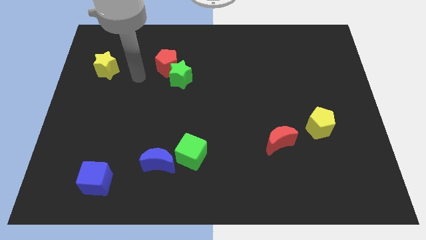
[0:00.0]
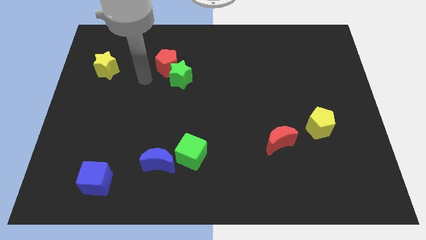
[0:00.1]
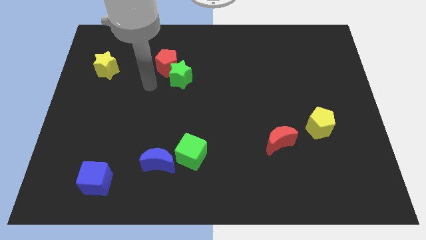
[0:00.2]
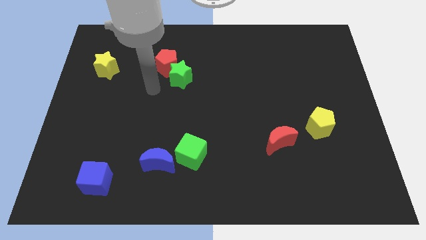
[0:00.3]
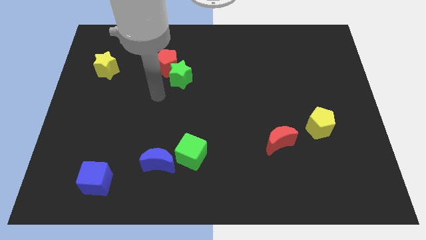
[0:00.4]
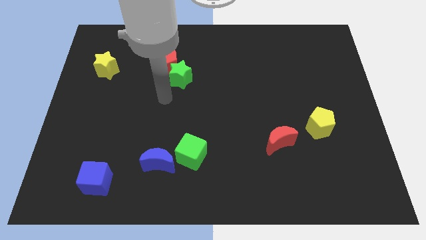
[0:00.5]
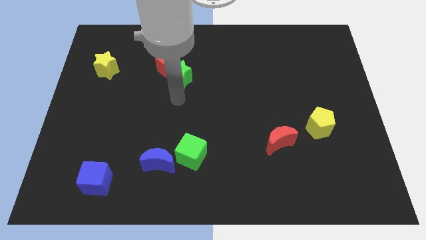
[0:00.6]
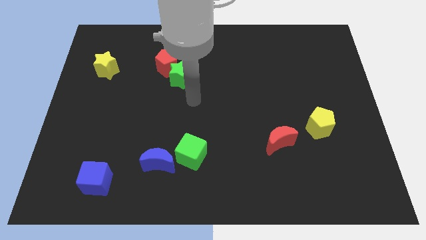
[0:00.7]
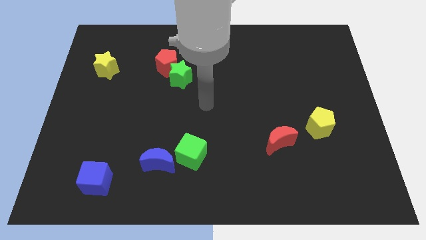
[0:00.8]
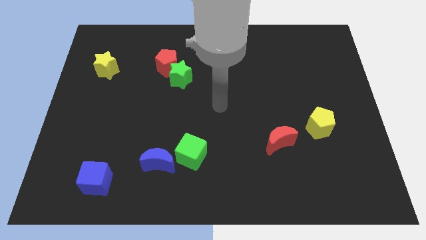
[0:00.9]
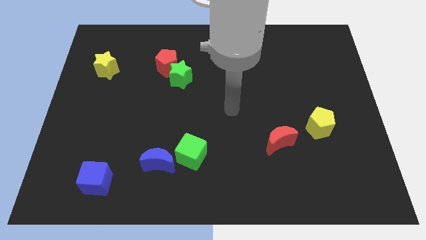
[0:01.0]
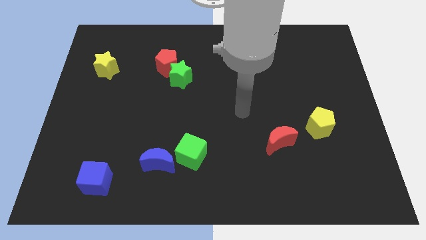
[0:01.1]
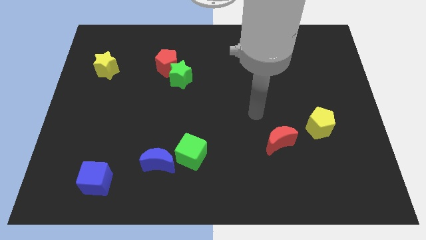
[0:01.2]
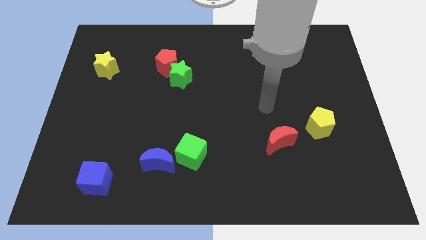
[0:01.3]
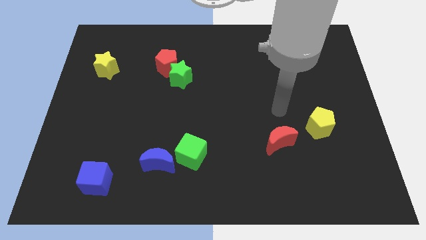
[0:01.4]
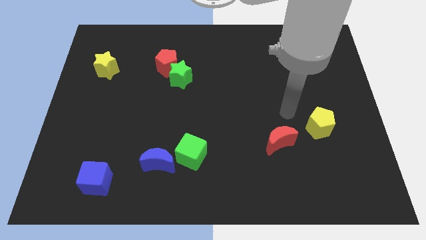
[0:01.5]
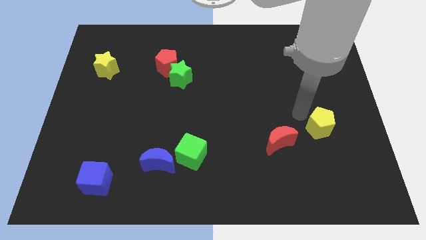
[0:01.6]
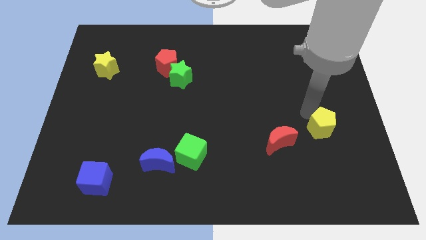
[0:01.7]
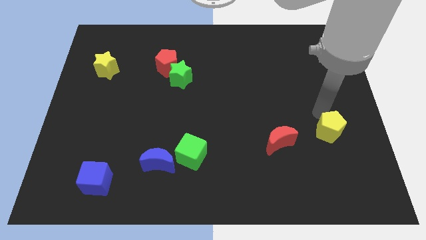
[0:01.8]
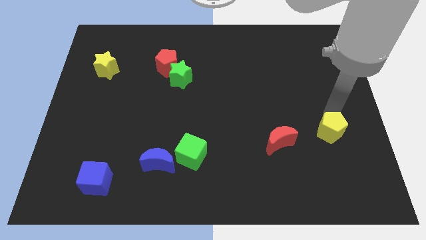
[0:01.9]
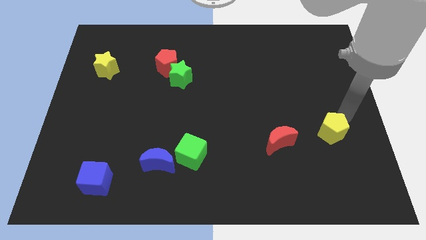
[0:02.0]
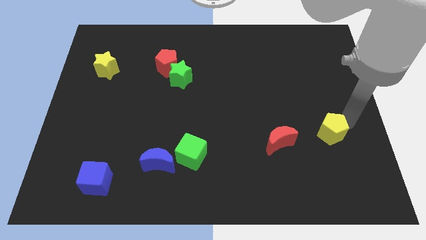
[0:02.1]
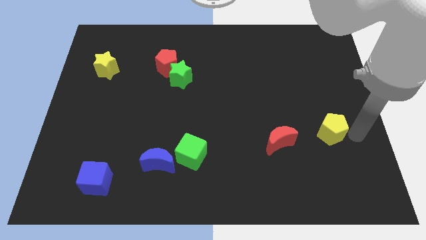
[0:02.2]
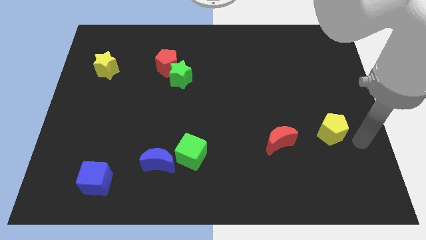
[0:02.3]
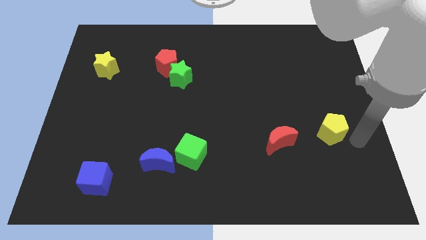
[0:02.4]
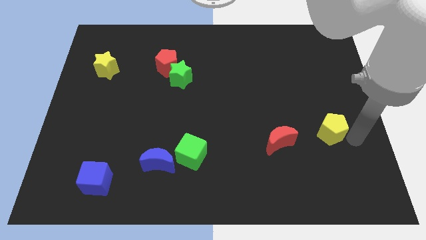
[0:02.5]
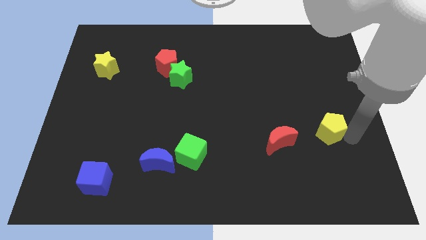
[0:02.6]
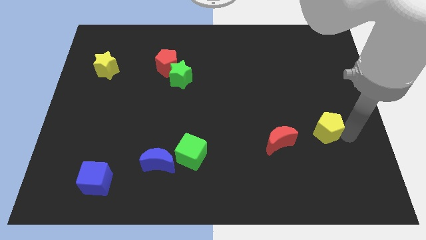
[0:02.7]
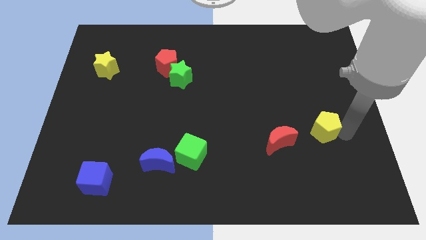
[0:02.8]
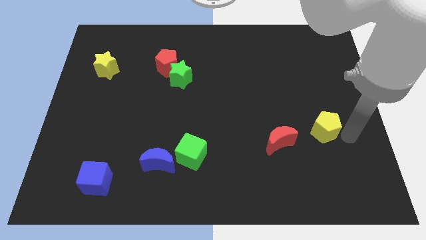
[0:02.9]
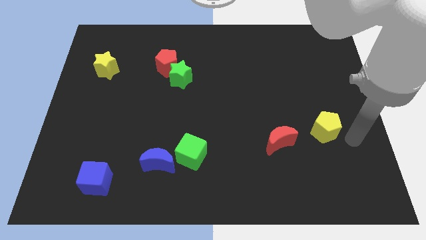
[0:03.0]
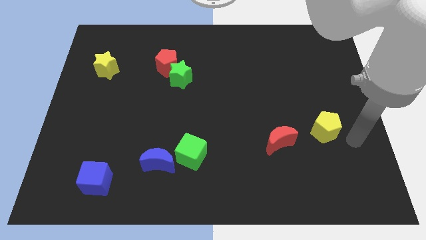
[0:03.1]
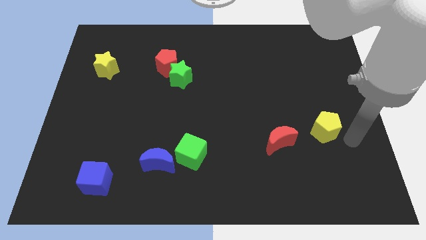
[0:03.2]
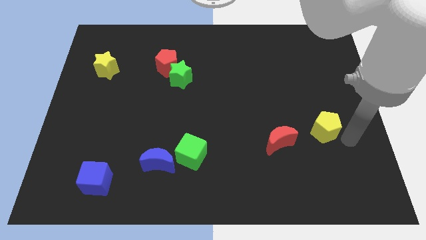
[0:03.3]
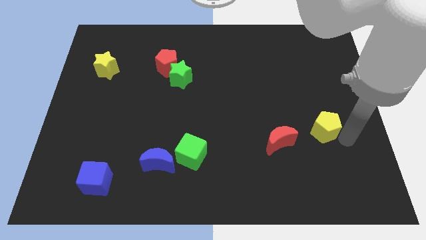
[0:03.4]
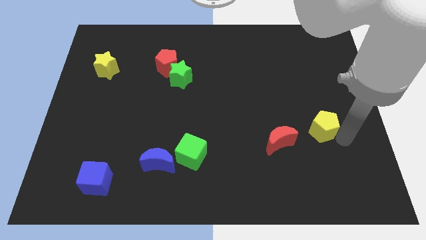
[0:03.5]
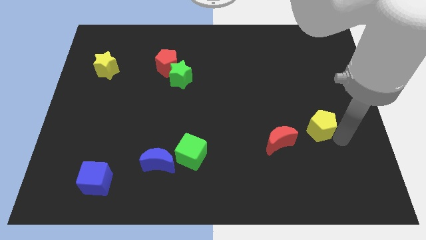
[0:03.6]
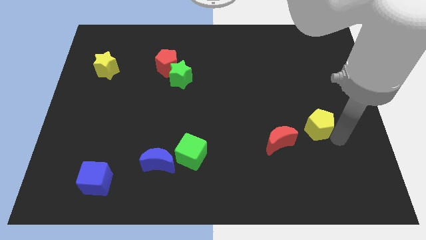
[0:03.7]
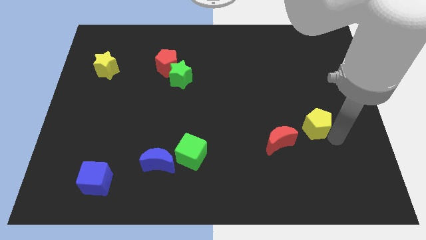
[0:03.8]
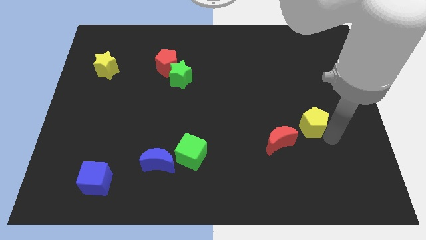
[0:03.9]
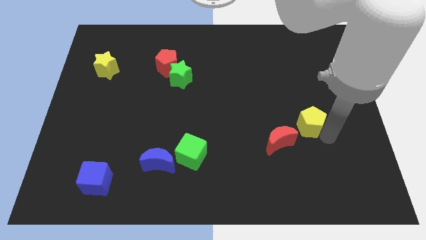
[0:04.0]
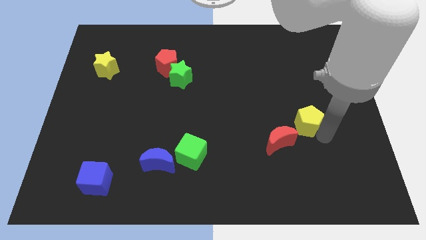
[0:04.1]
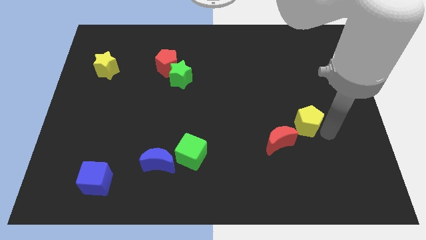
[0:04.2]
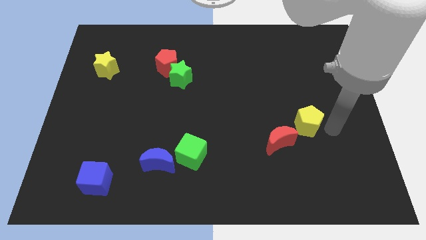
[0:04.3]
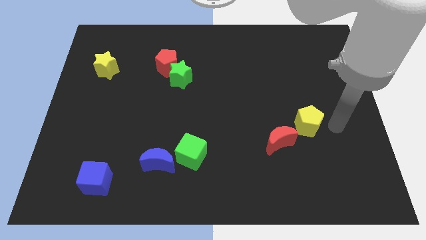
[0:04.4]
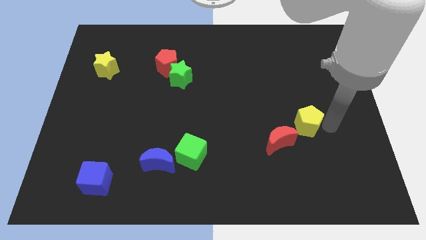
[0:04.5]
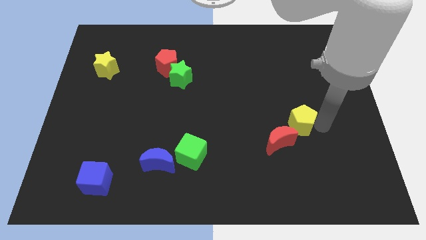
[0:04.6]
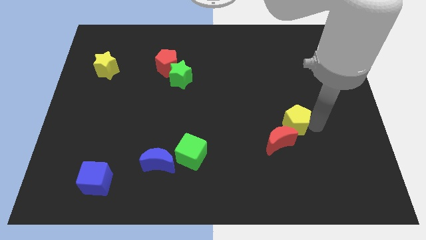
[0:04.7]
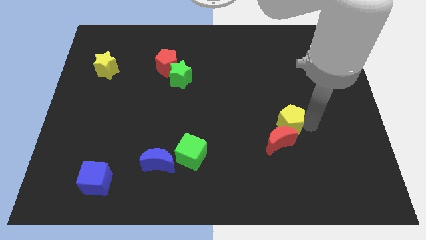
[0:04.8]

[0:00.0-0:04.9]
push the yellow pentagon to the left a bit

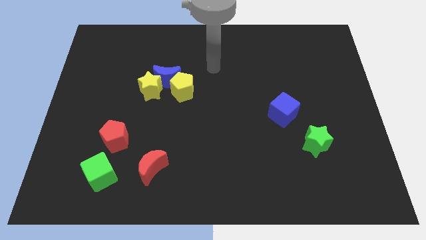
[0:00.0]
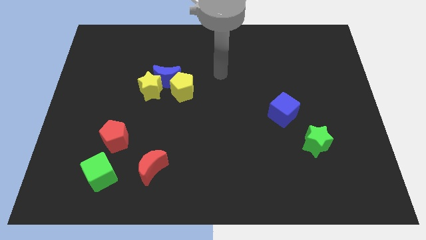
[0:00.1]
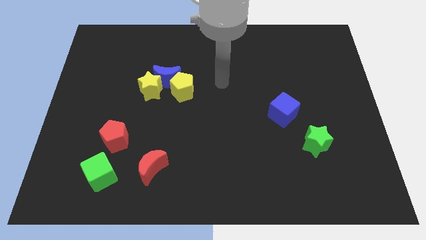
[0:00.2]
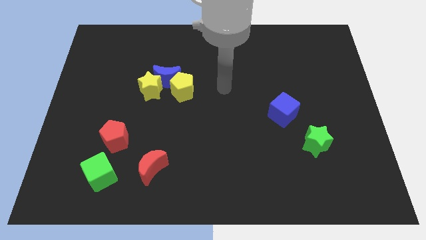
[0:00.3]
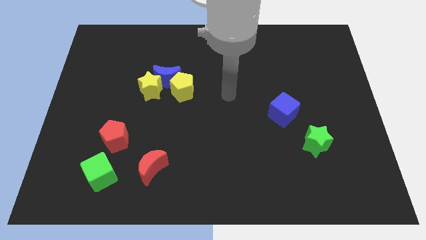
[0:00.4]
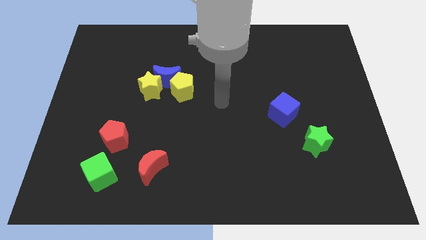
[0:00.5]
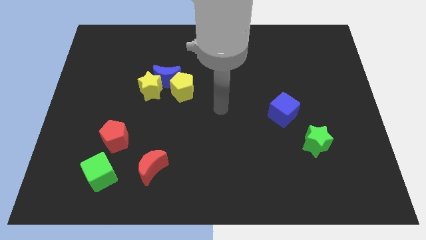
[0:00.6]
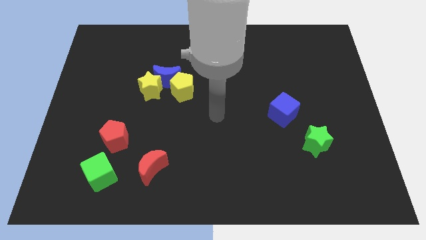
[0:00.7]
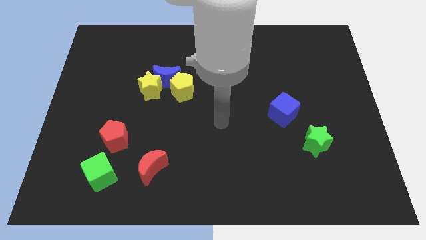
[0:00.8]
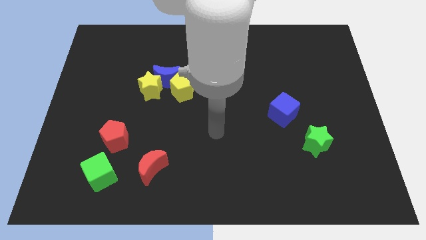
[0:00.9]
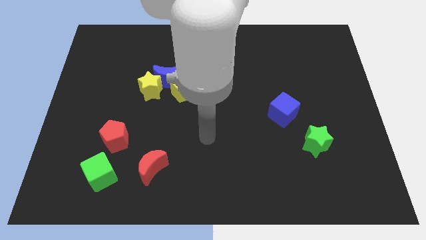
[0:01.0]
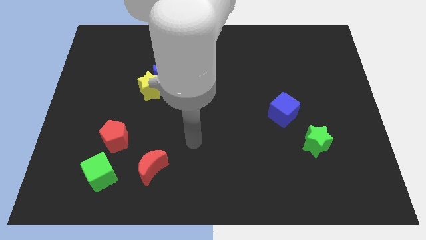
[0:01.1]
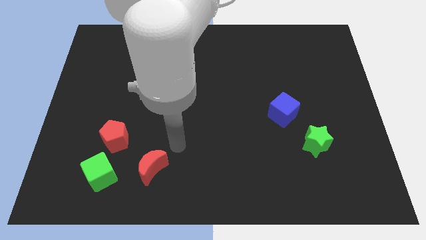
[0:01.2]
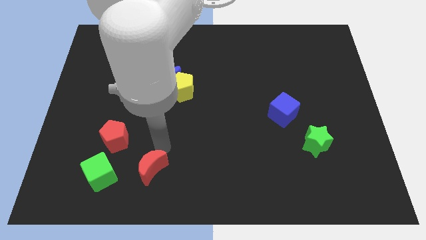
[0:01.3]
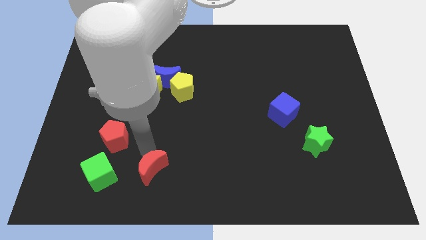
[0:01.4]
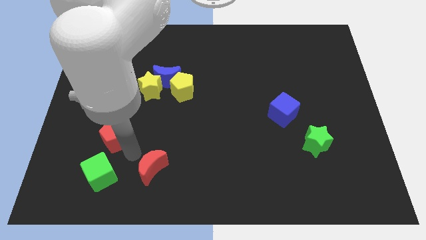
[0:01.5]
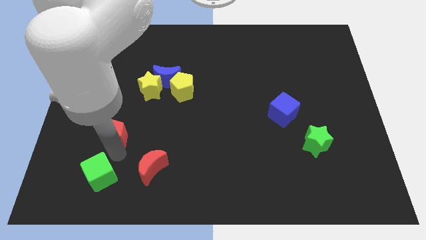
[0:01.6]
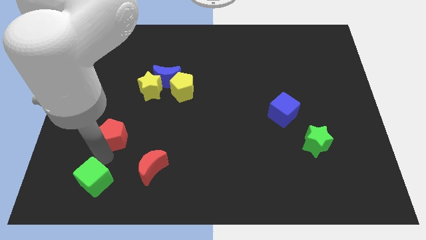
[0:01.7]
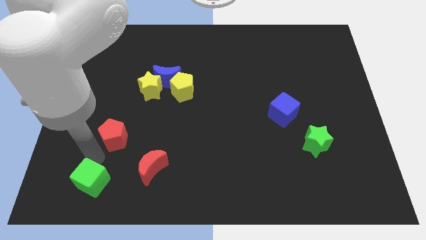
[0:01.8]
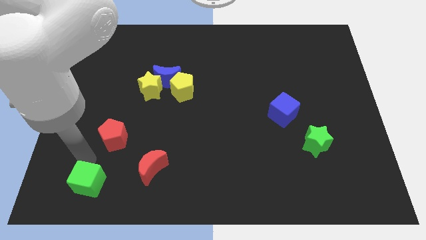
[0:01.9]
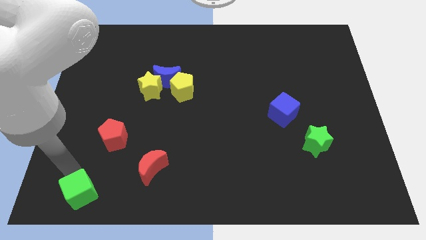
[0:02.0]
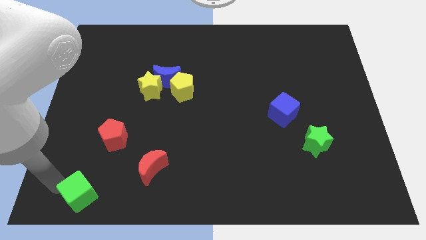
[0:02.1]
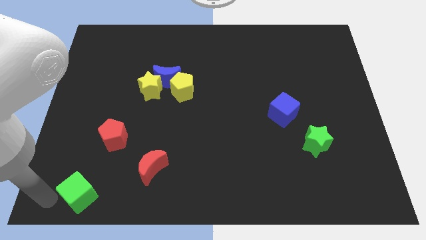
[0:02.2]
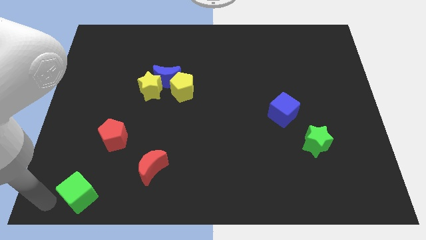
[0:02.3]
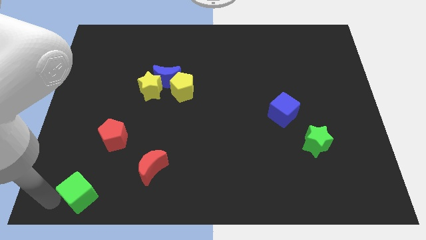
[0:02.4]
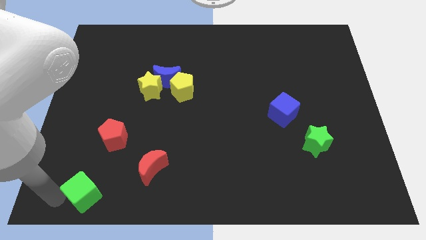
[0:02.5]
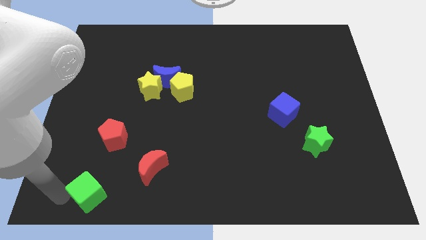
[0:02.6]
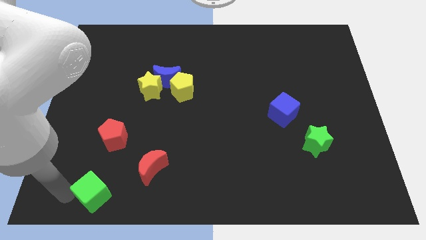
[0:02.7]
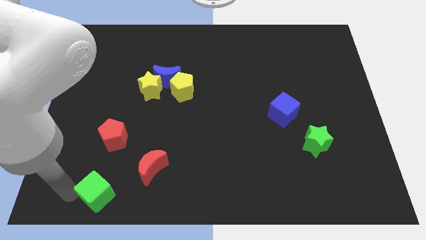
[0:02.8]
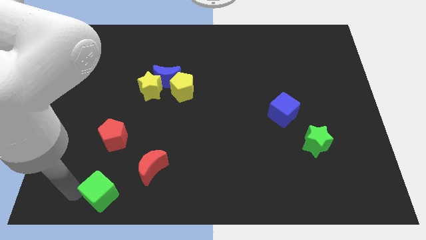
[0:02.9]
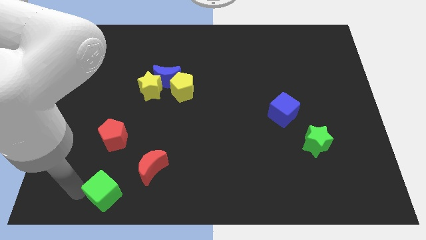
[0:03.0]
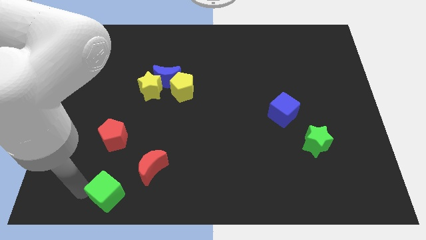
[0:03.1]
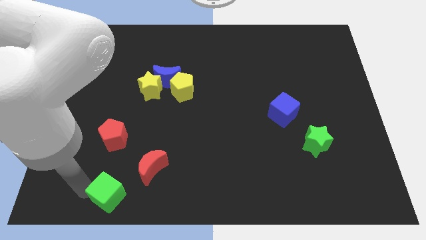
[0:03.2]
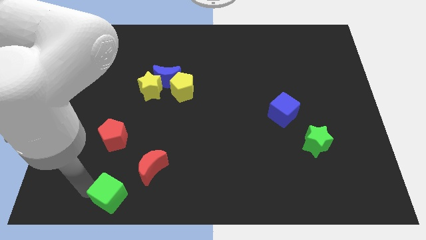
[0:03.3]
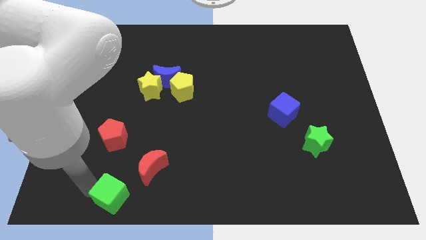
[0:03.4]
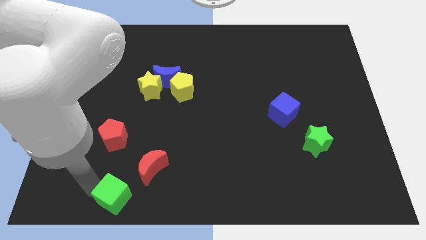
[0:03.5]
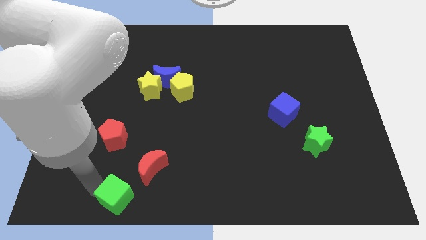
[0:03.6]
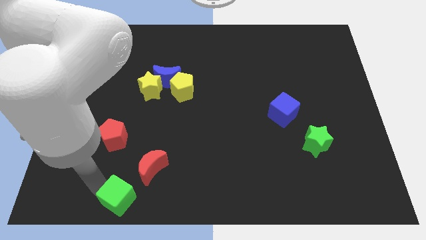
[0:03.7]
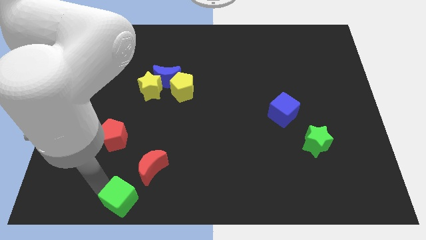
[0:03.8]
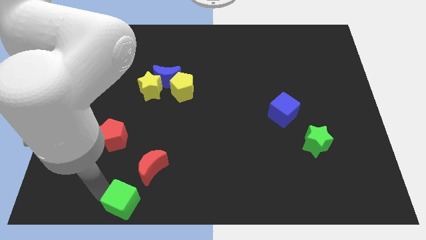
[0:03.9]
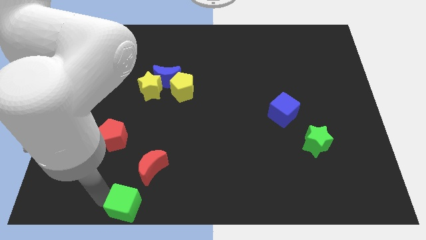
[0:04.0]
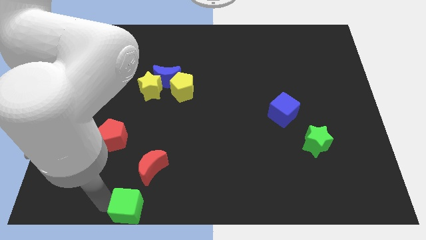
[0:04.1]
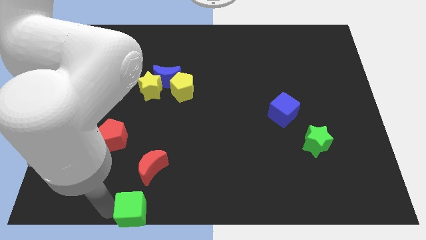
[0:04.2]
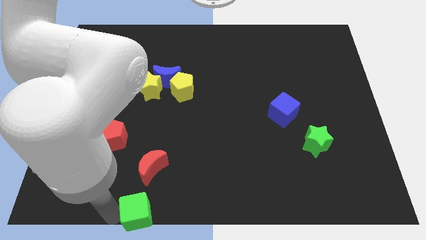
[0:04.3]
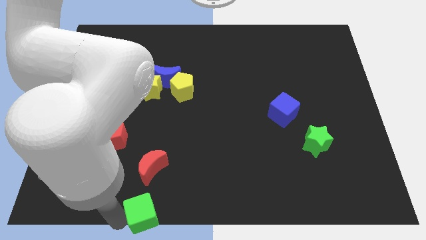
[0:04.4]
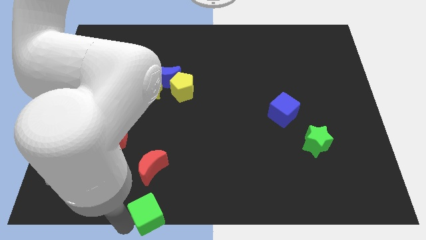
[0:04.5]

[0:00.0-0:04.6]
push the green cube to the right slightly
